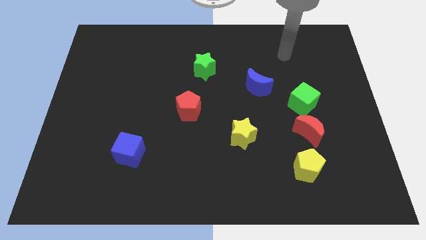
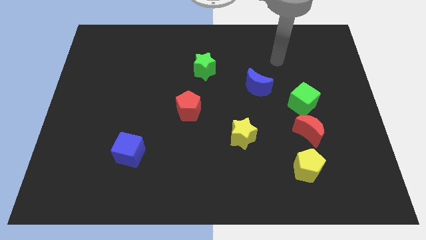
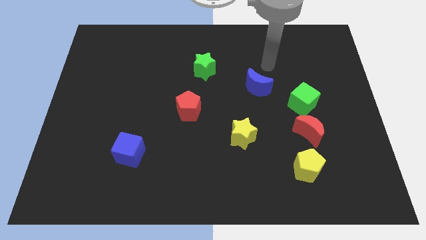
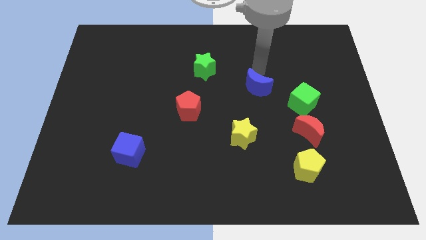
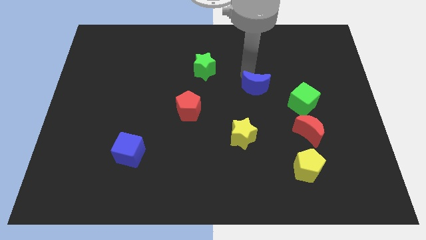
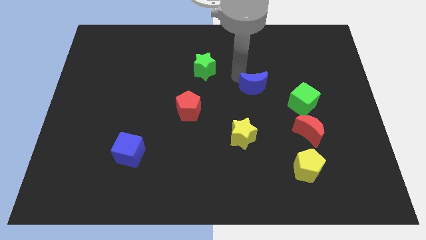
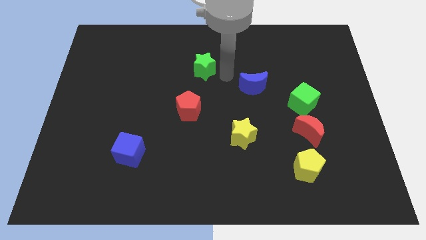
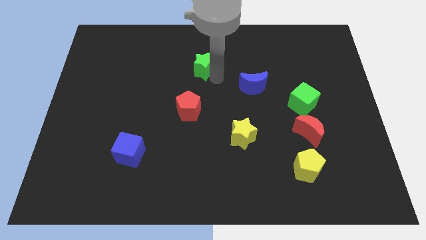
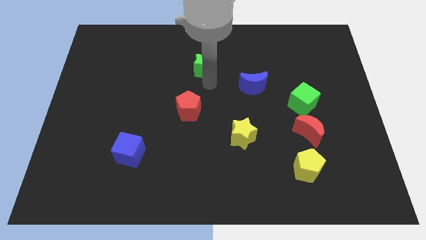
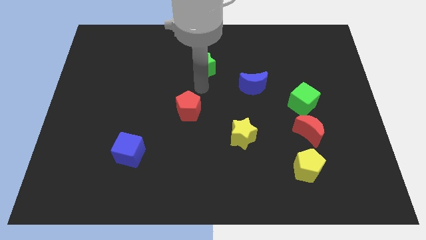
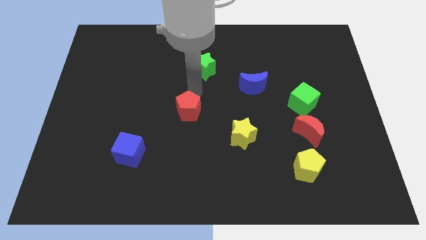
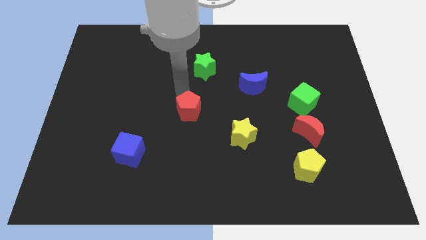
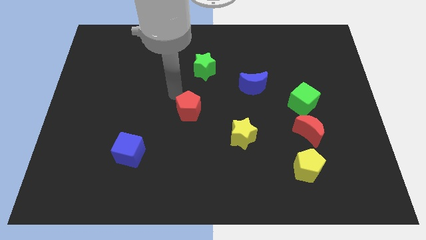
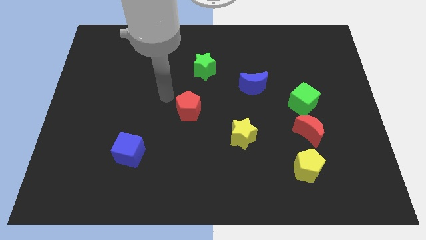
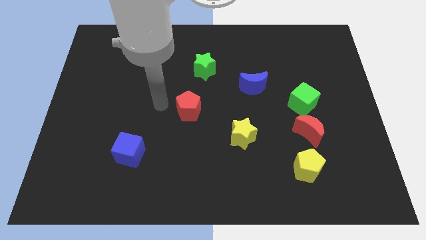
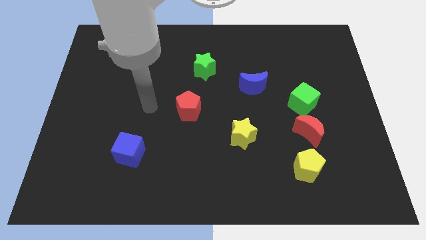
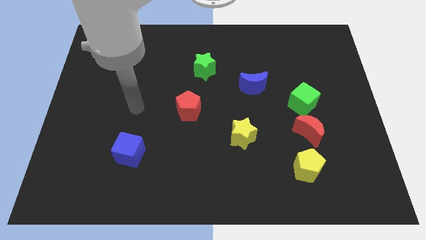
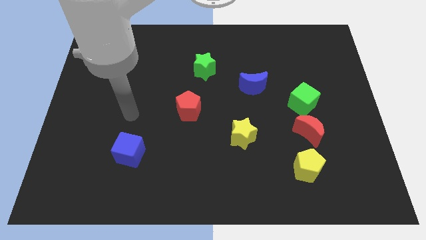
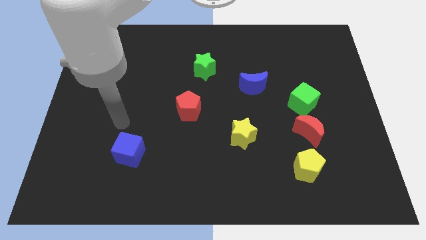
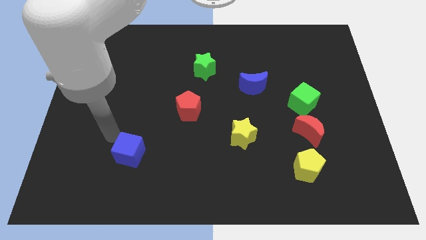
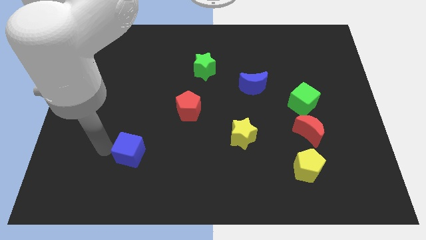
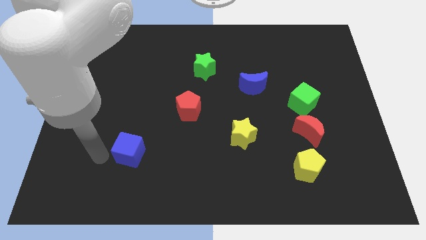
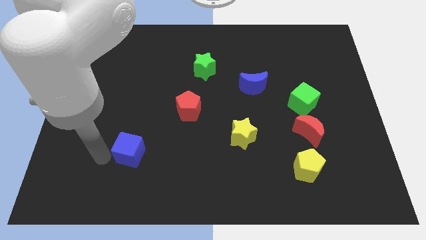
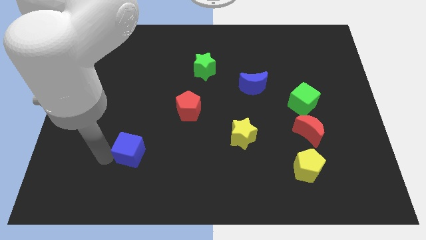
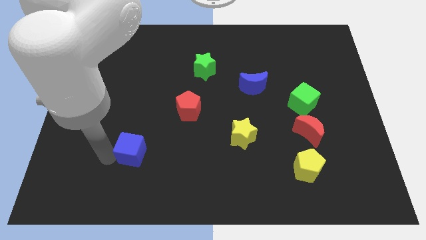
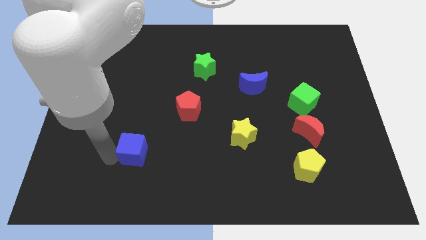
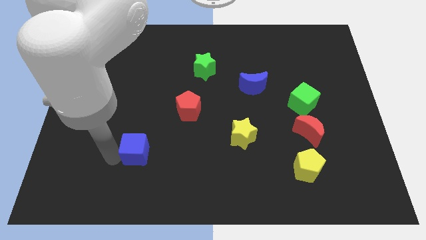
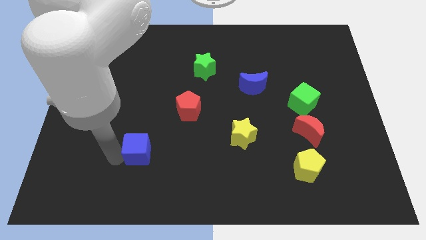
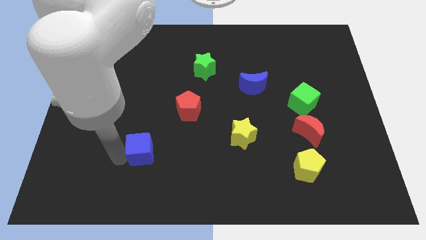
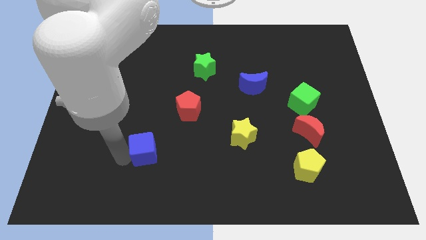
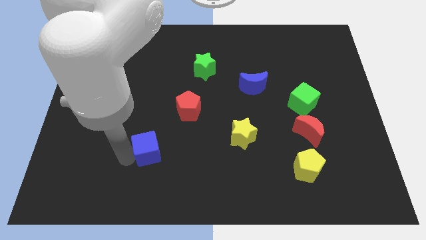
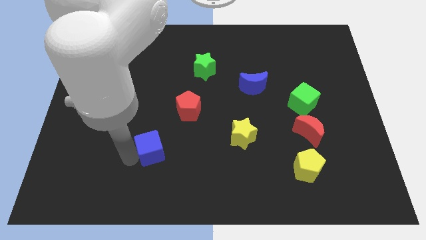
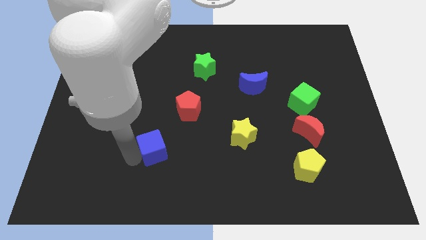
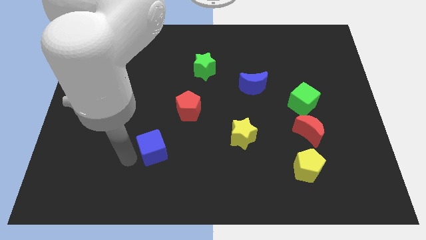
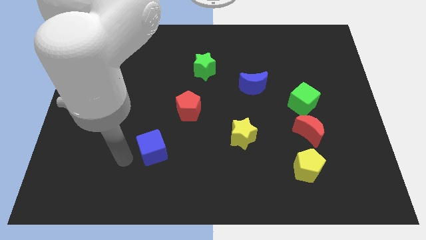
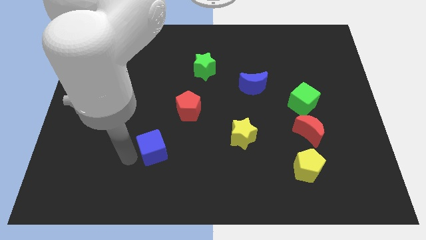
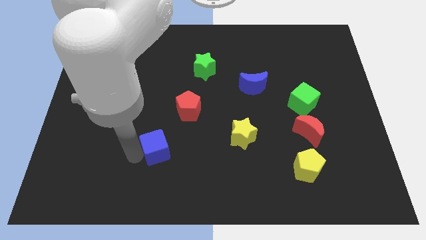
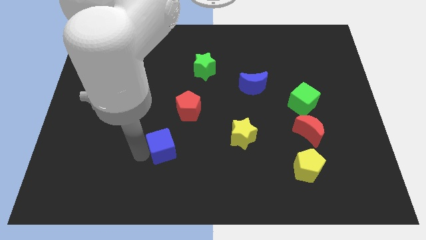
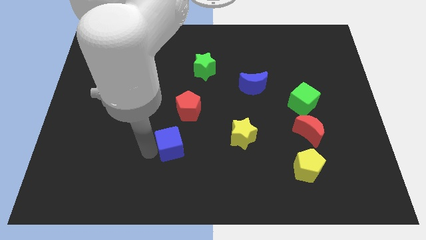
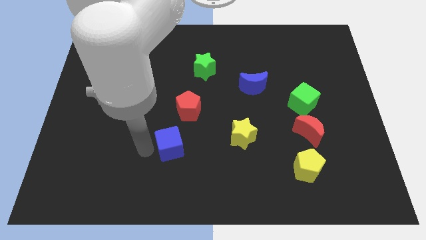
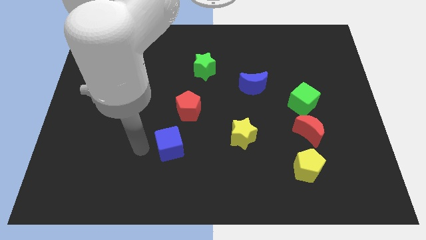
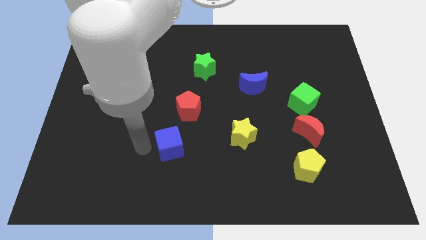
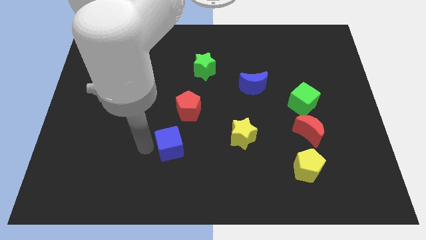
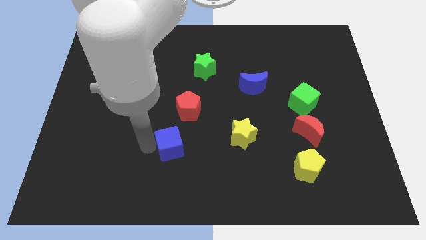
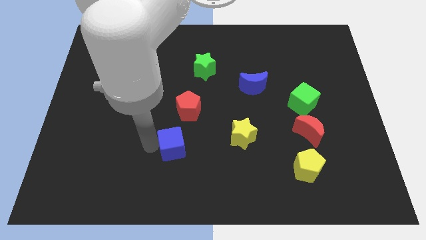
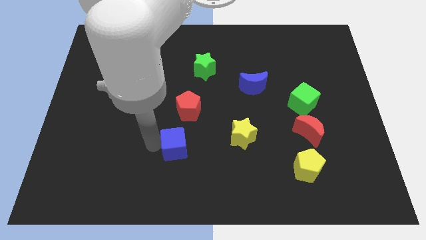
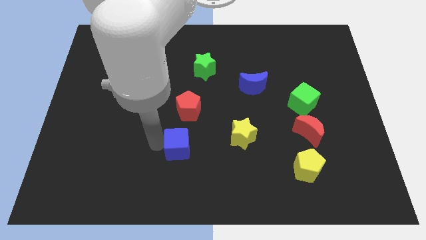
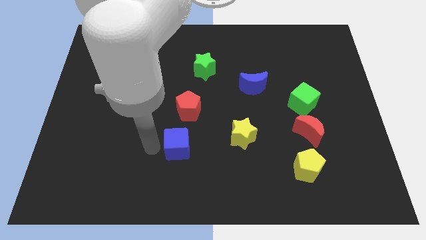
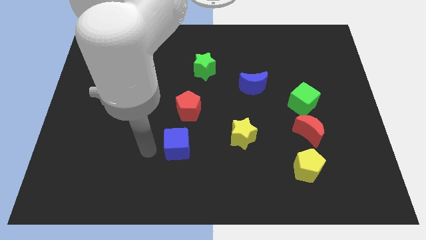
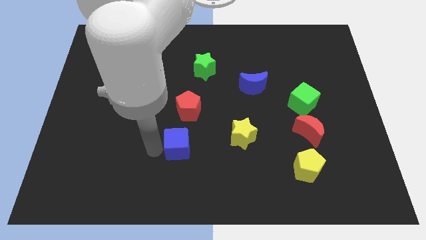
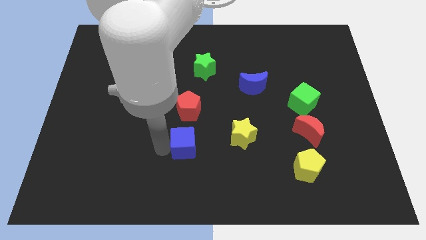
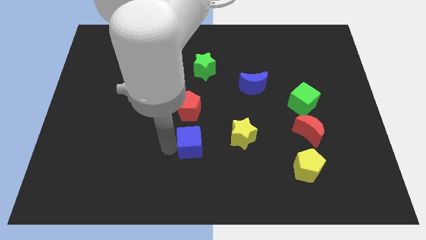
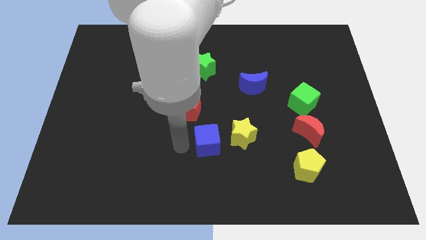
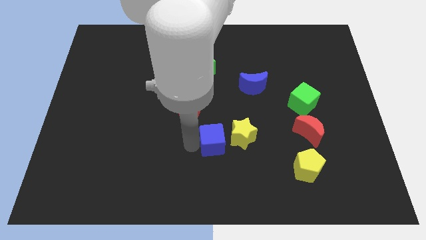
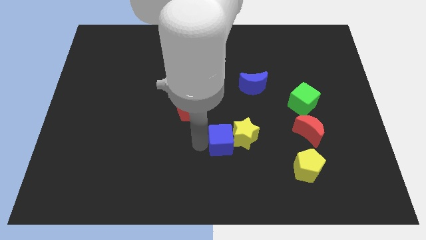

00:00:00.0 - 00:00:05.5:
slide the blue cube next to the yellow star

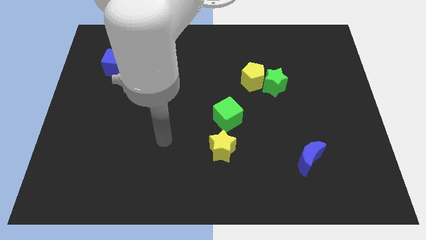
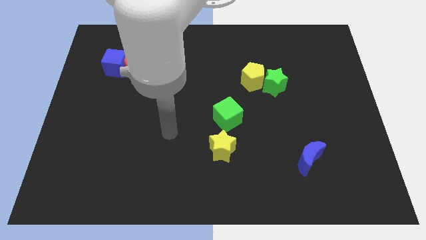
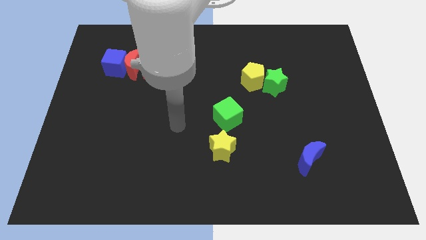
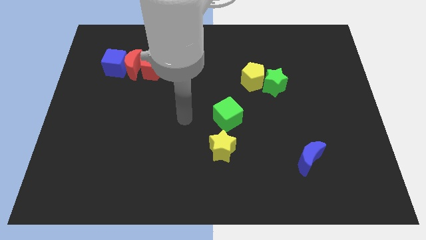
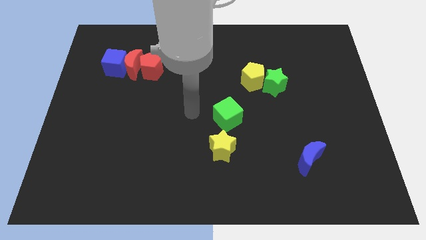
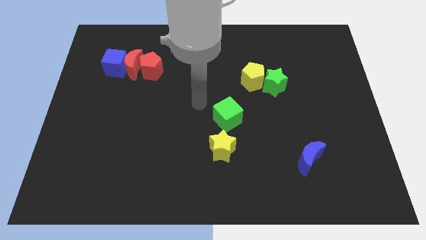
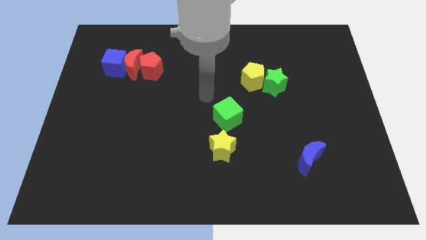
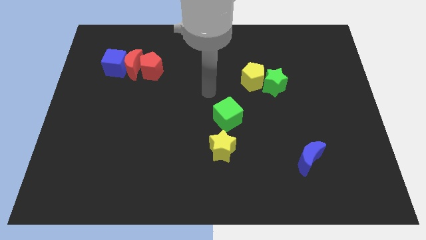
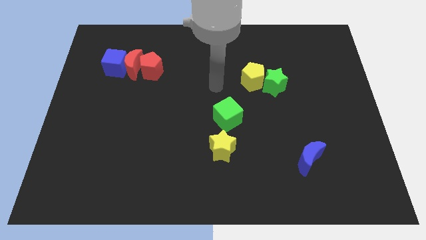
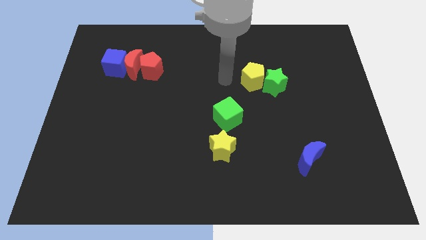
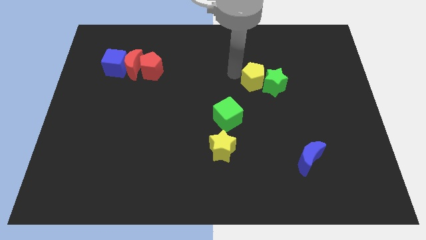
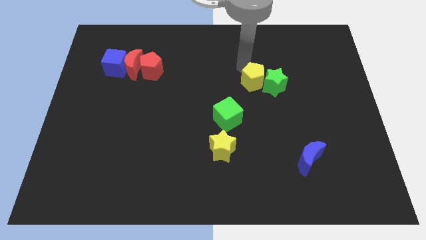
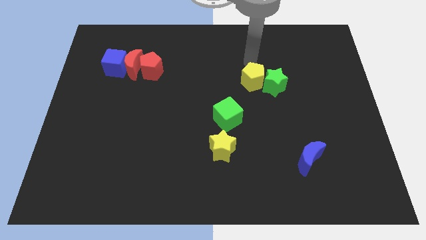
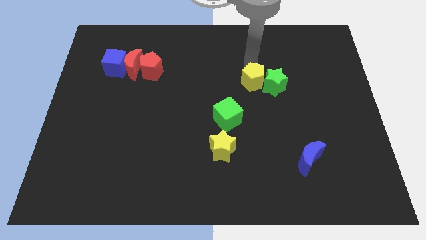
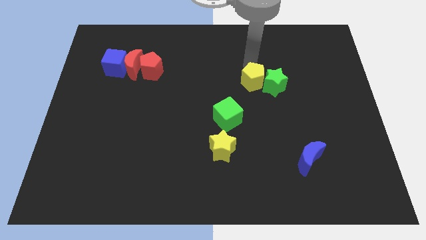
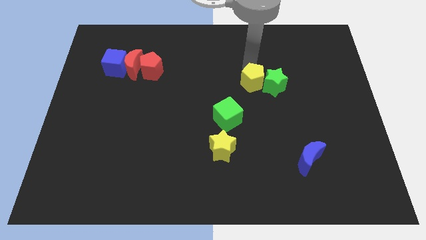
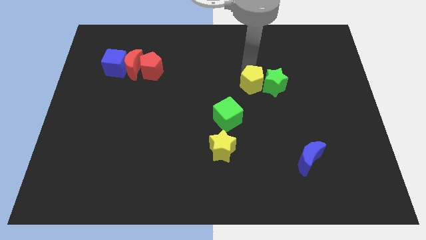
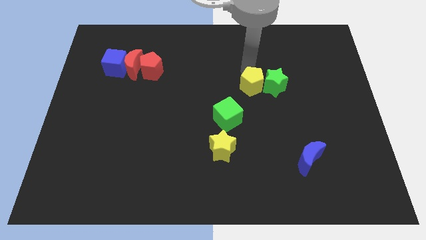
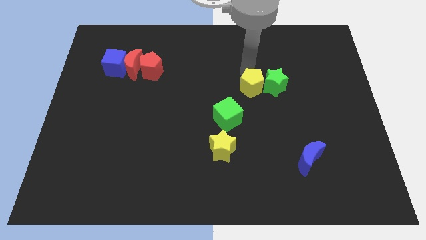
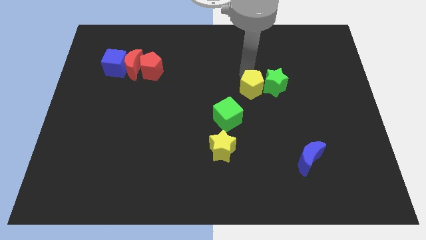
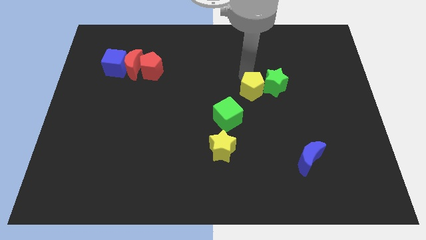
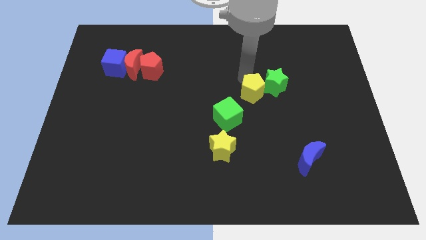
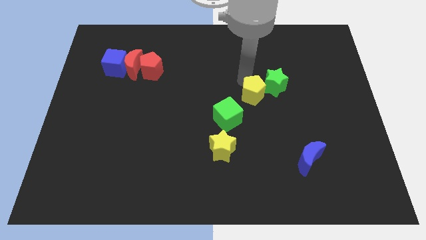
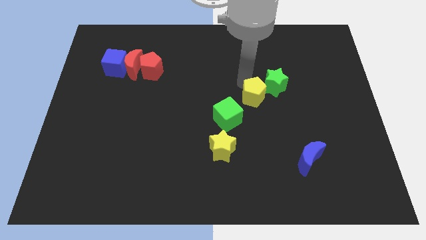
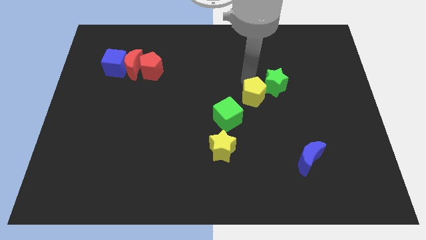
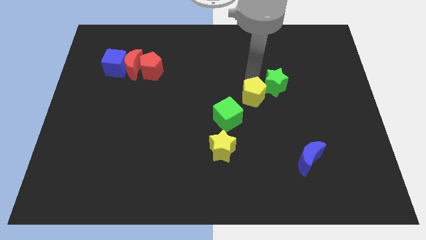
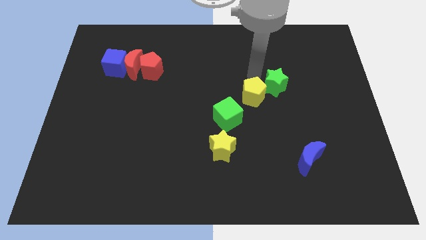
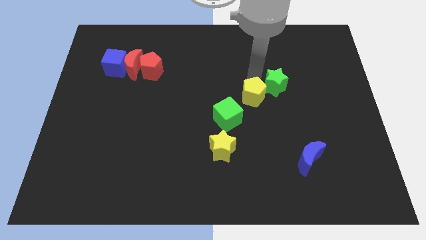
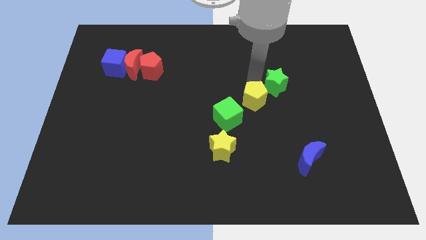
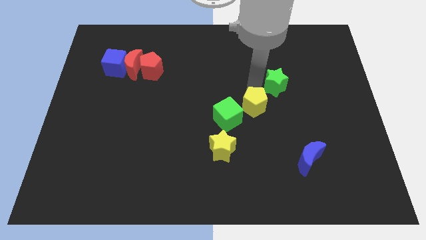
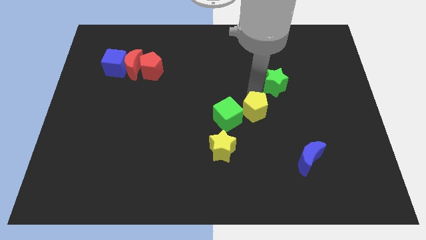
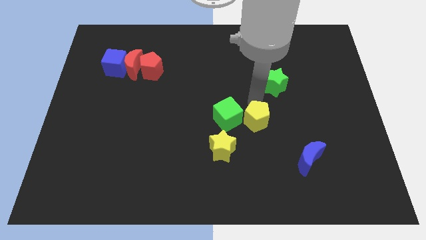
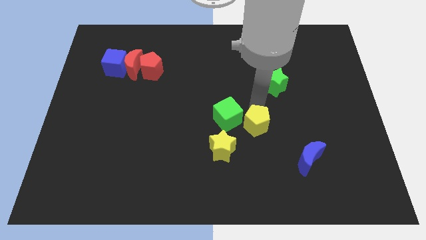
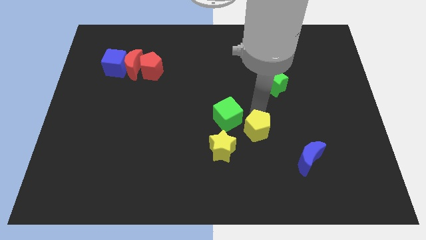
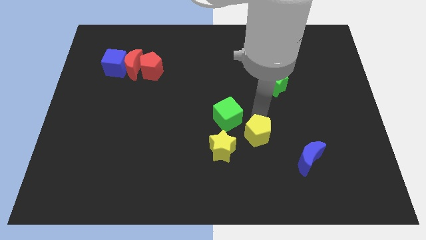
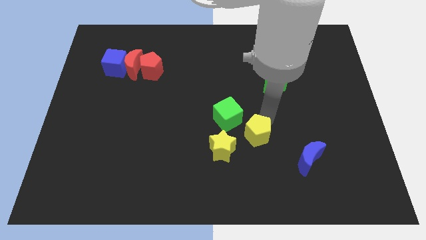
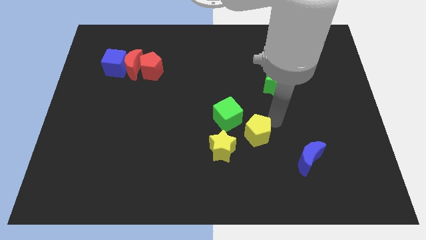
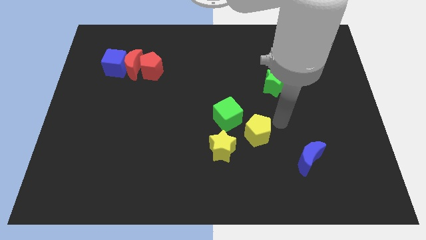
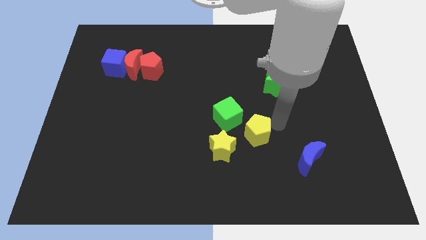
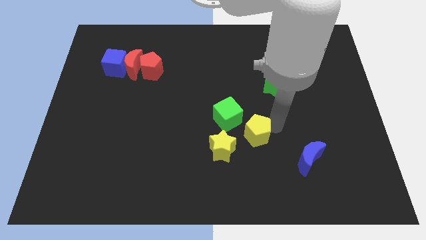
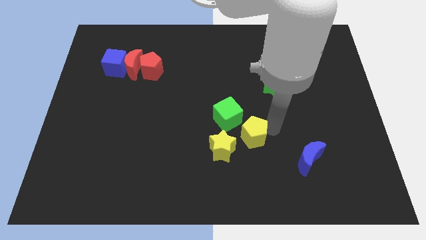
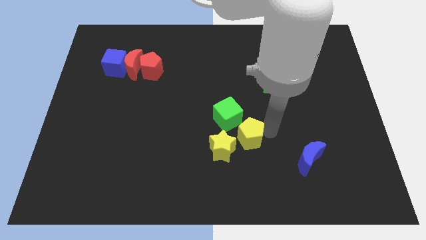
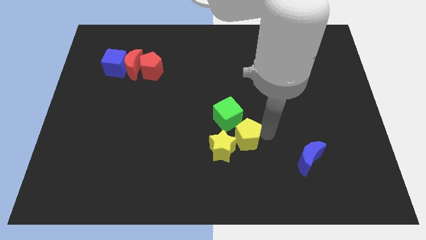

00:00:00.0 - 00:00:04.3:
slide the yellow pentagon towards the yellow star
